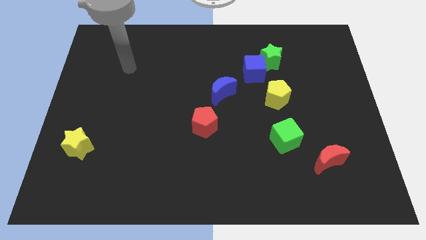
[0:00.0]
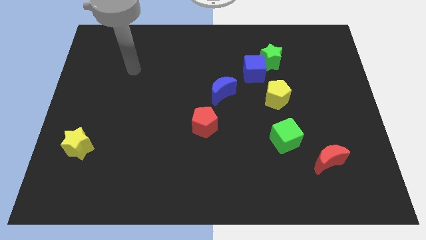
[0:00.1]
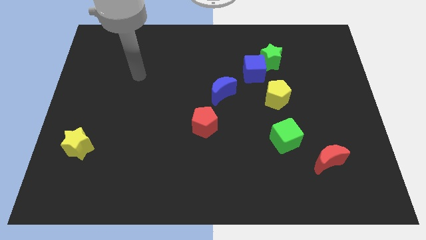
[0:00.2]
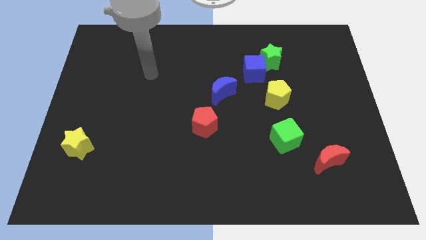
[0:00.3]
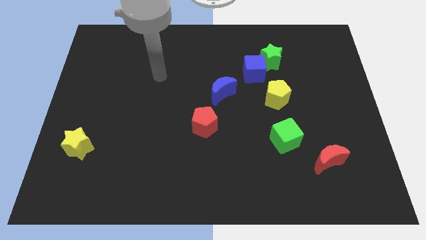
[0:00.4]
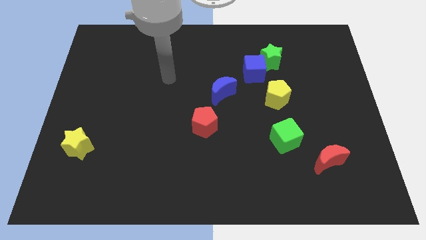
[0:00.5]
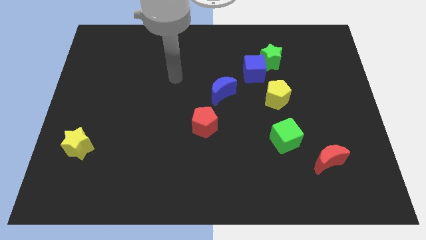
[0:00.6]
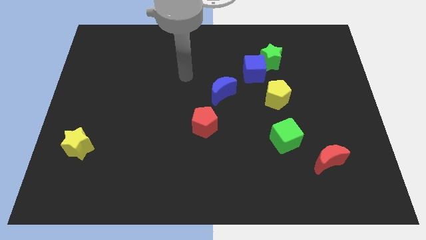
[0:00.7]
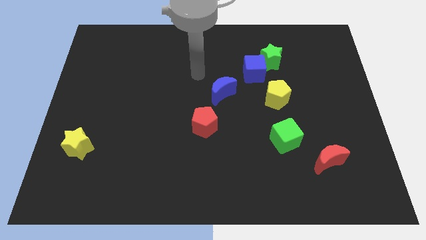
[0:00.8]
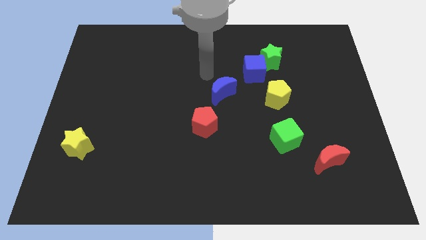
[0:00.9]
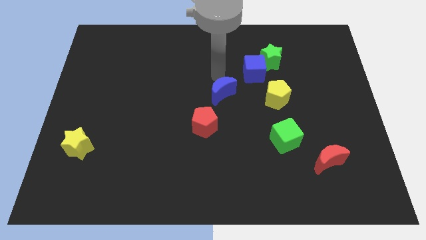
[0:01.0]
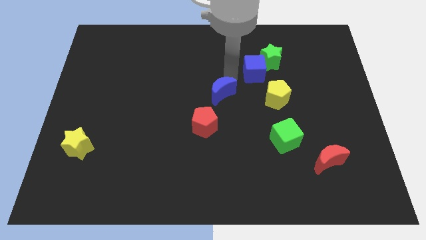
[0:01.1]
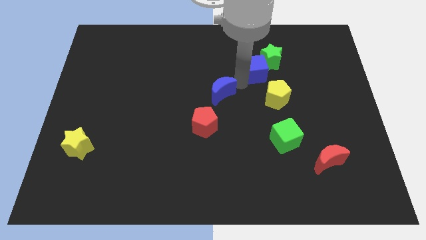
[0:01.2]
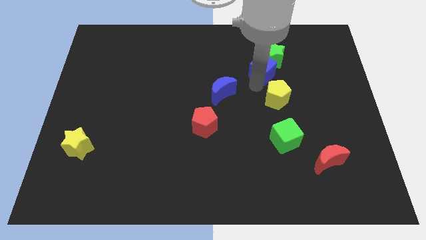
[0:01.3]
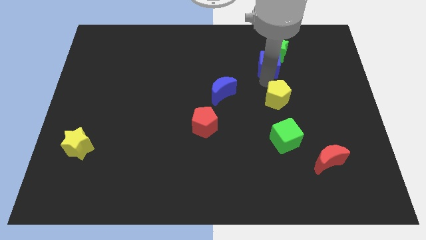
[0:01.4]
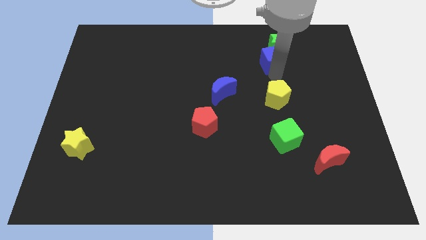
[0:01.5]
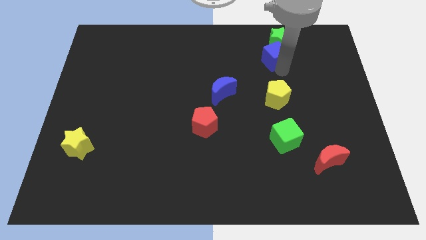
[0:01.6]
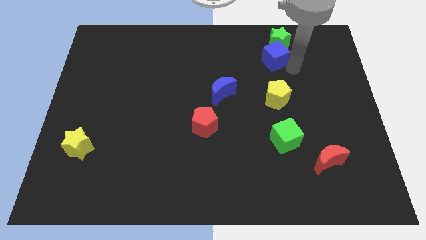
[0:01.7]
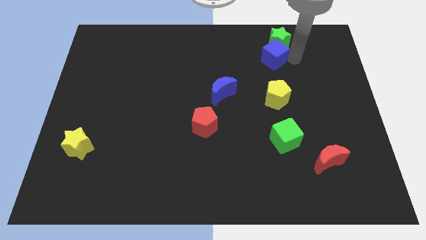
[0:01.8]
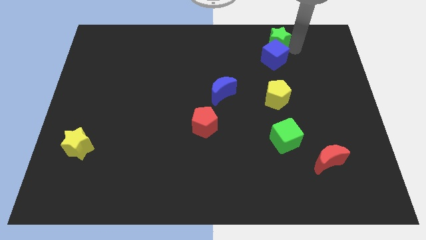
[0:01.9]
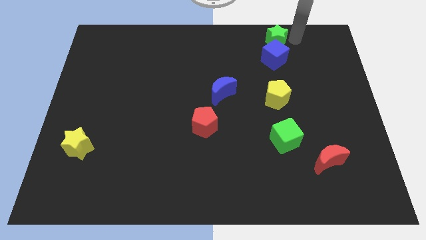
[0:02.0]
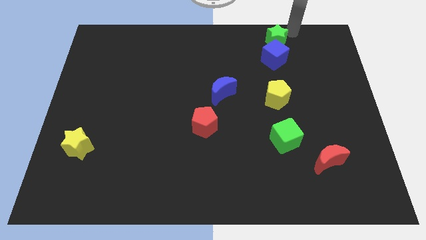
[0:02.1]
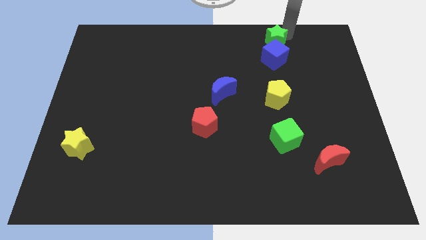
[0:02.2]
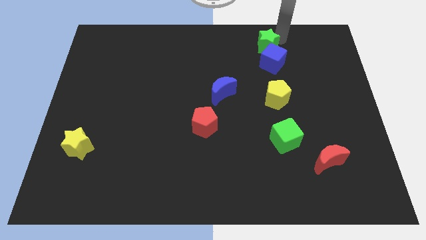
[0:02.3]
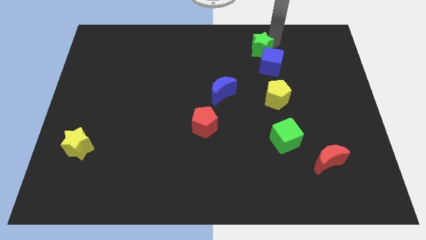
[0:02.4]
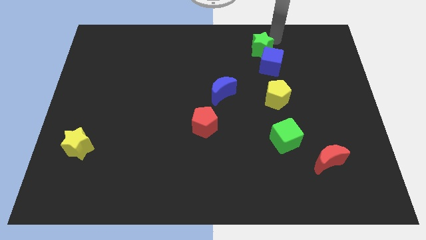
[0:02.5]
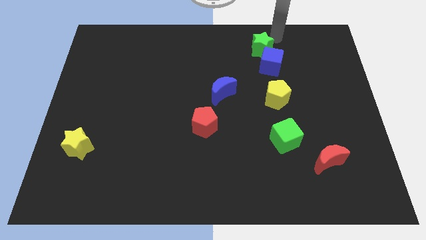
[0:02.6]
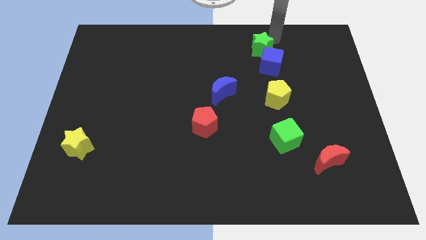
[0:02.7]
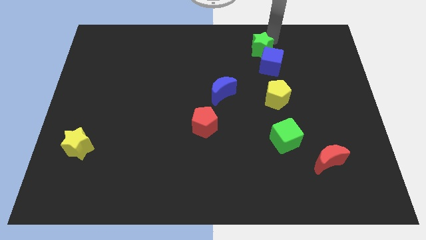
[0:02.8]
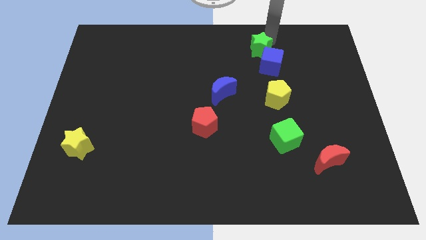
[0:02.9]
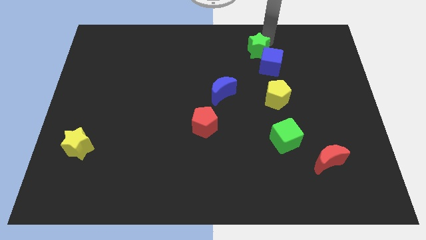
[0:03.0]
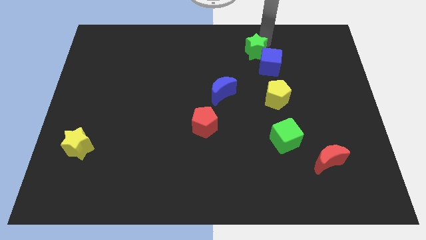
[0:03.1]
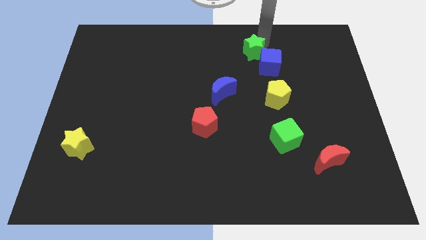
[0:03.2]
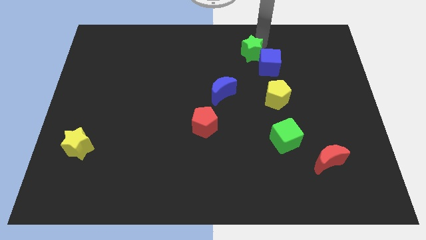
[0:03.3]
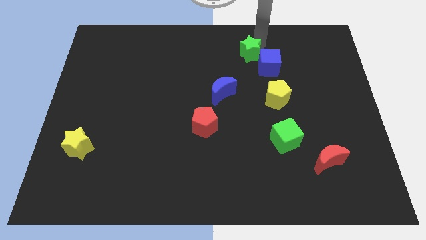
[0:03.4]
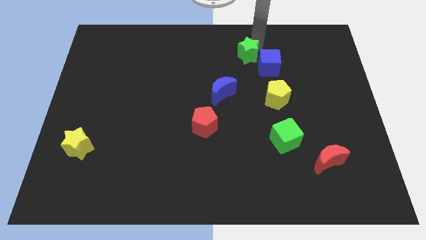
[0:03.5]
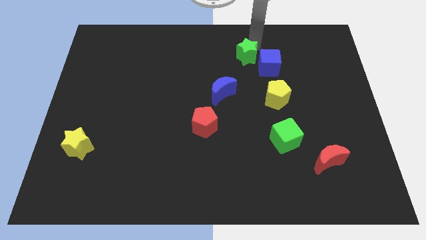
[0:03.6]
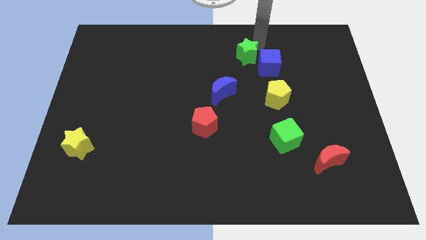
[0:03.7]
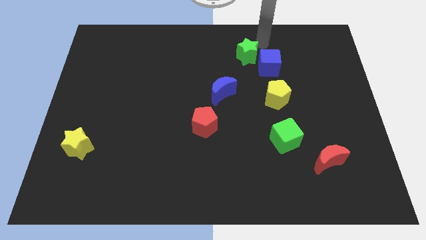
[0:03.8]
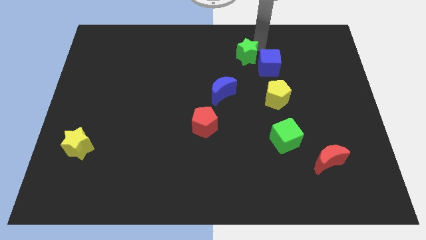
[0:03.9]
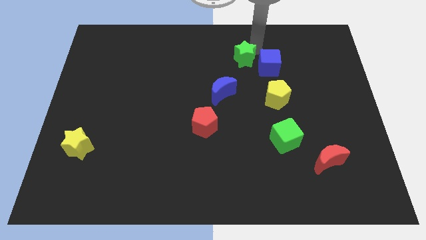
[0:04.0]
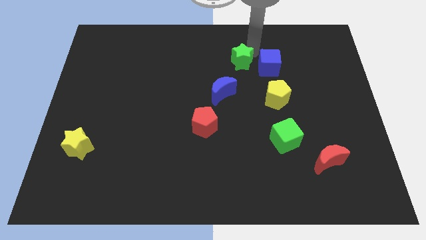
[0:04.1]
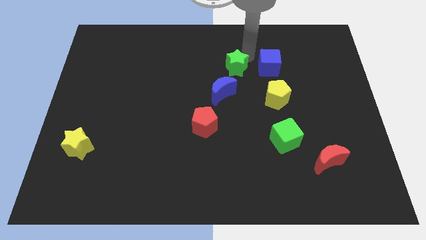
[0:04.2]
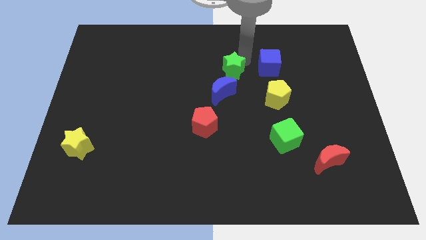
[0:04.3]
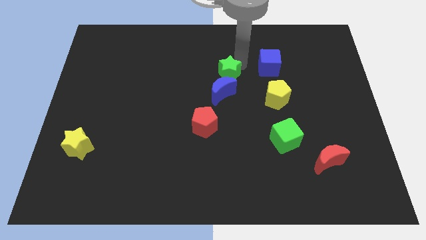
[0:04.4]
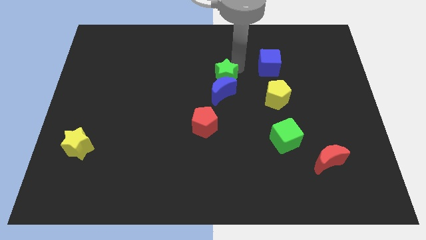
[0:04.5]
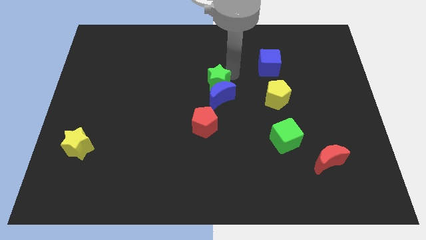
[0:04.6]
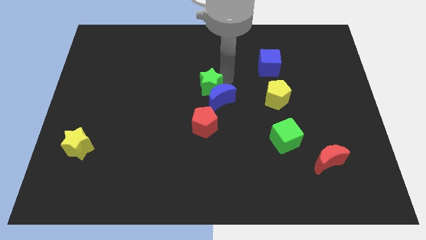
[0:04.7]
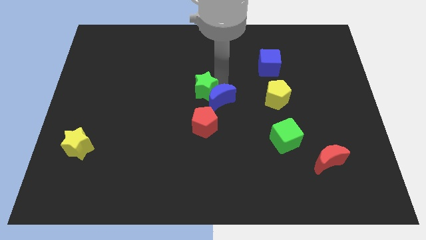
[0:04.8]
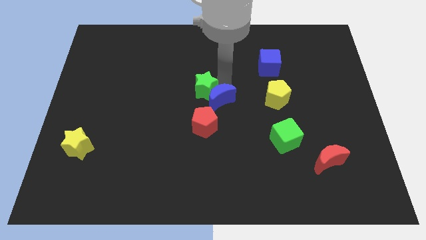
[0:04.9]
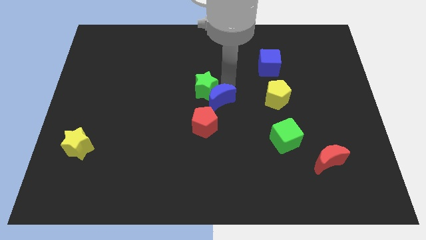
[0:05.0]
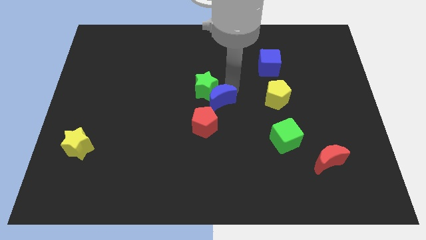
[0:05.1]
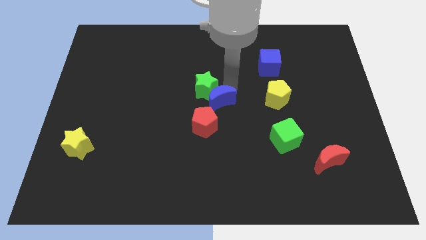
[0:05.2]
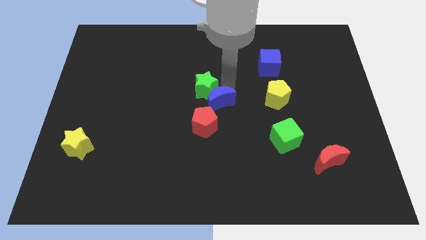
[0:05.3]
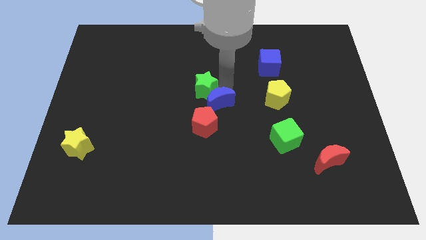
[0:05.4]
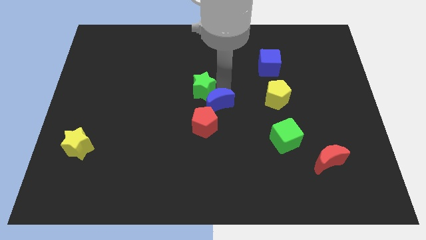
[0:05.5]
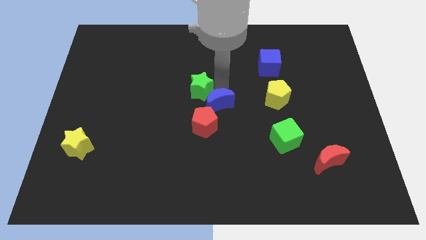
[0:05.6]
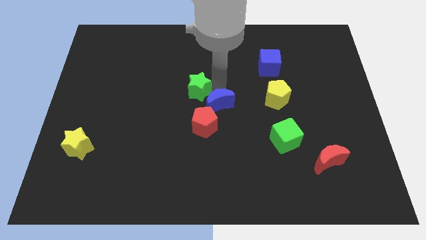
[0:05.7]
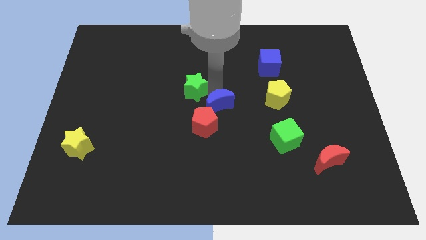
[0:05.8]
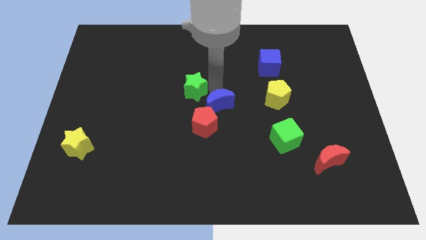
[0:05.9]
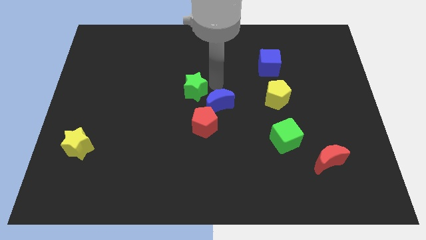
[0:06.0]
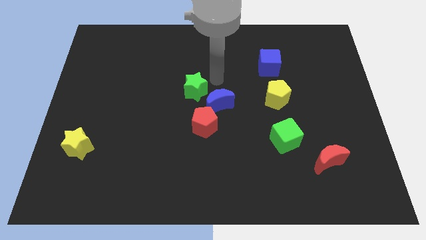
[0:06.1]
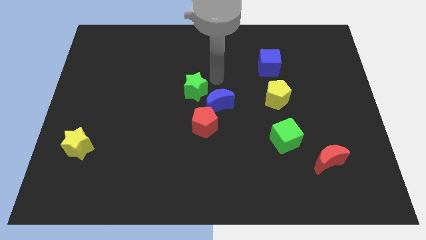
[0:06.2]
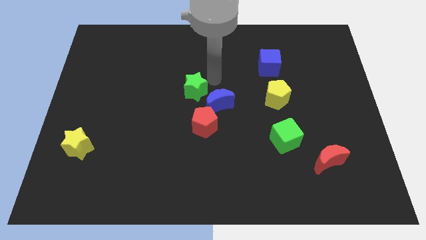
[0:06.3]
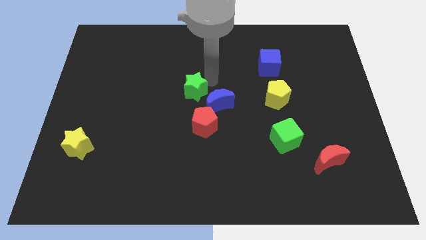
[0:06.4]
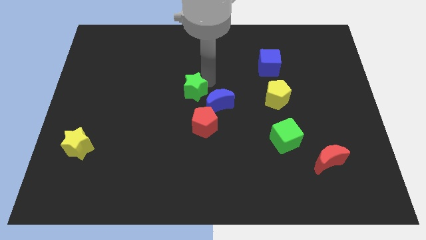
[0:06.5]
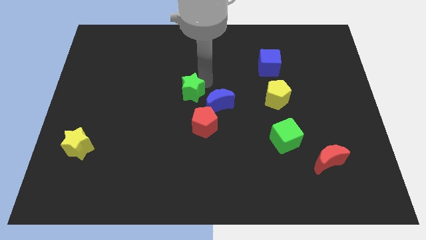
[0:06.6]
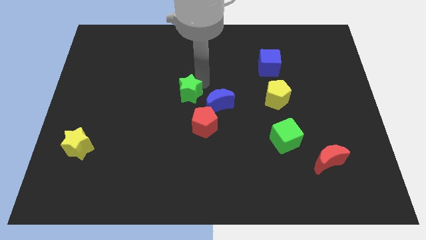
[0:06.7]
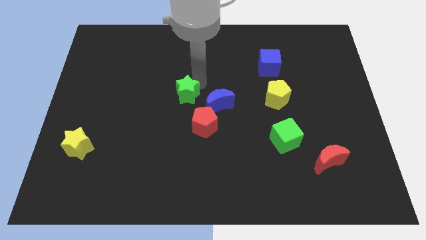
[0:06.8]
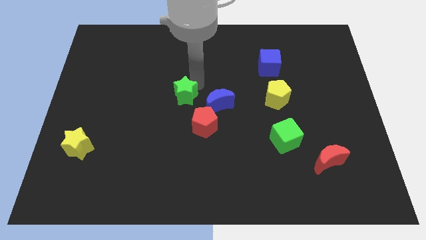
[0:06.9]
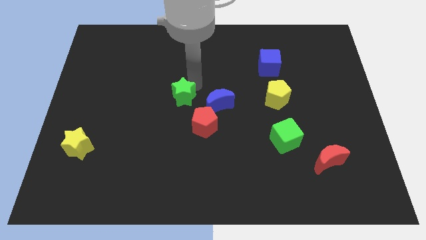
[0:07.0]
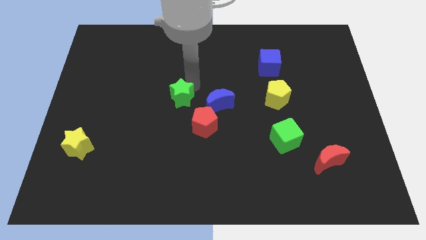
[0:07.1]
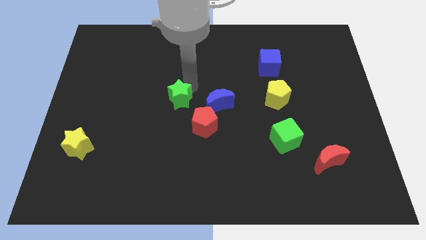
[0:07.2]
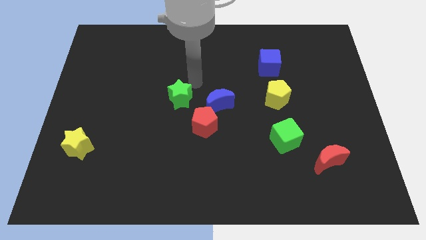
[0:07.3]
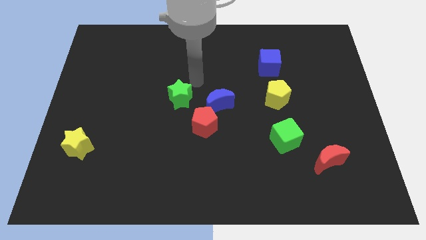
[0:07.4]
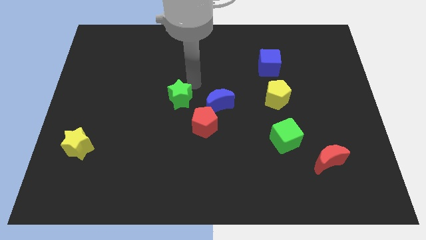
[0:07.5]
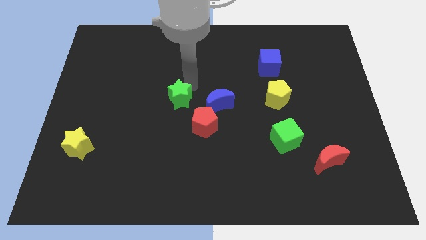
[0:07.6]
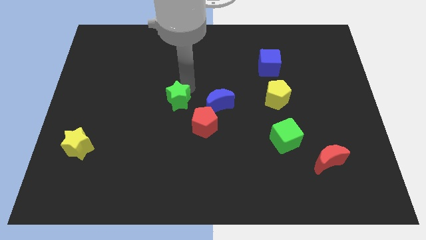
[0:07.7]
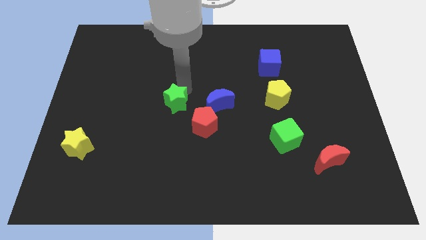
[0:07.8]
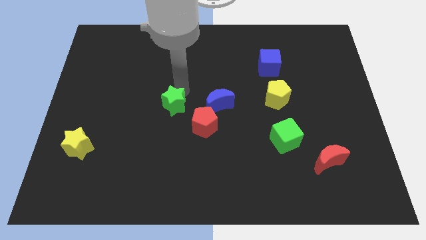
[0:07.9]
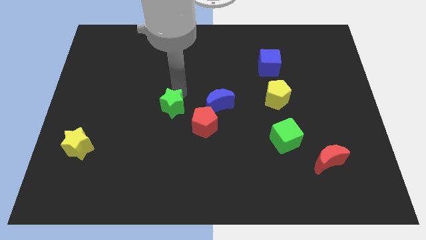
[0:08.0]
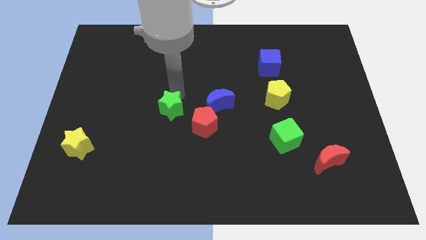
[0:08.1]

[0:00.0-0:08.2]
slide the green star to the left of the red pentagon

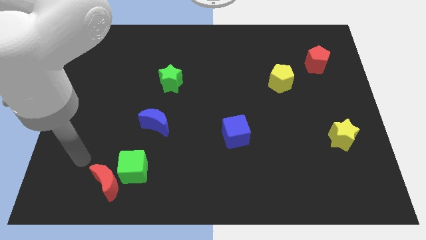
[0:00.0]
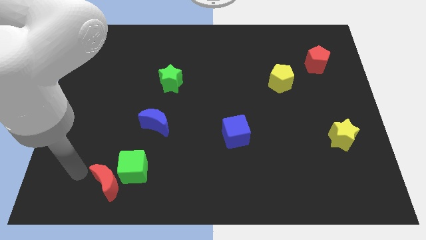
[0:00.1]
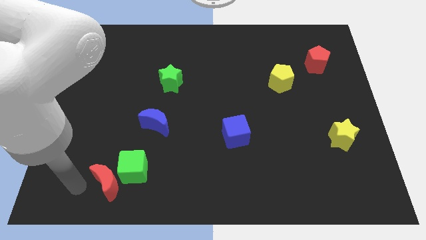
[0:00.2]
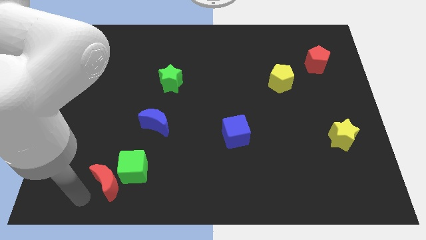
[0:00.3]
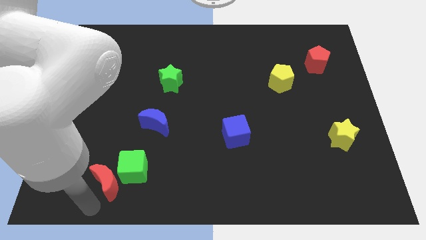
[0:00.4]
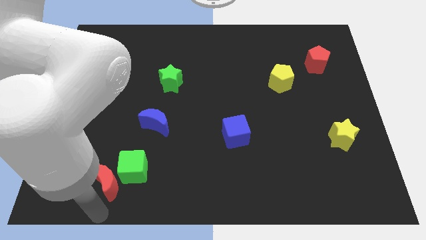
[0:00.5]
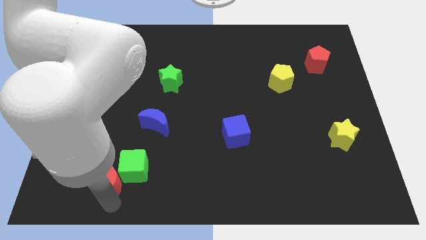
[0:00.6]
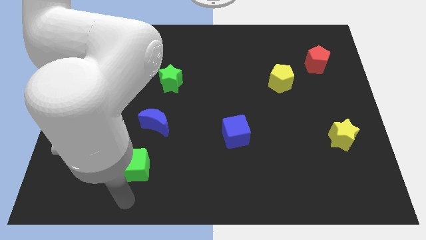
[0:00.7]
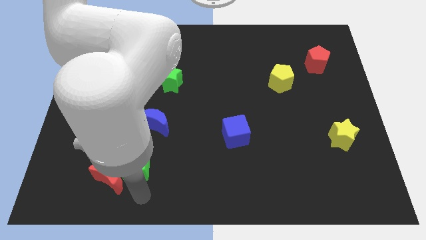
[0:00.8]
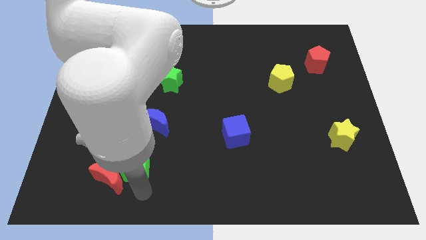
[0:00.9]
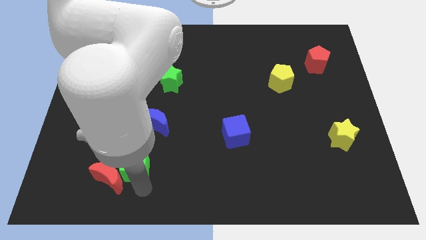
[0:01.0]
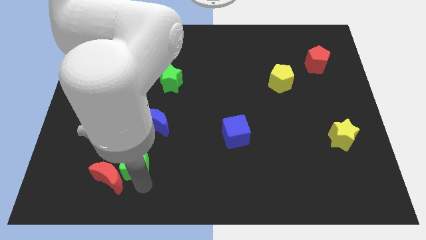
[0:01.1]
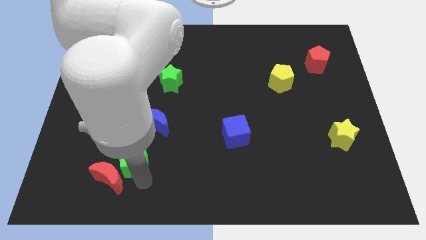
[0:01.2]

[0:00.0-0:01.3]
push the green cube to the bottom left side of the blue moon
